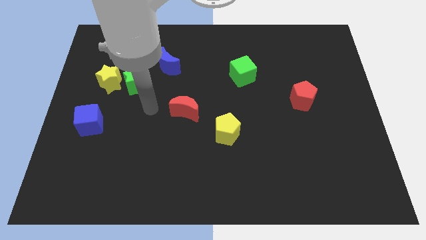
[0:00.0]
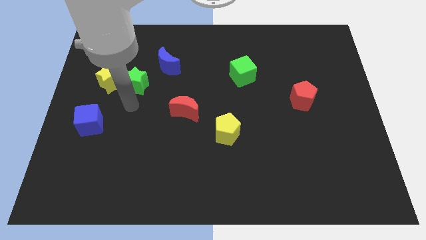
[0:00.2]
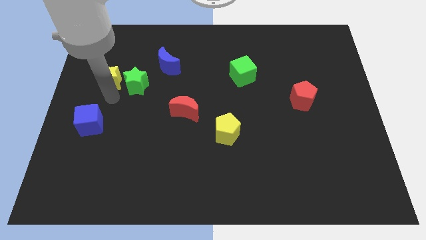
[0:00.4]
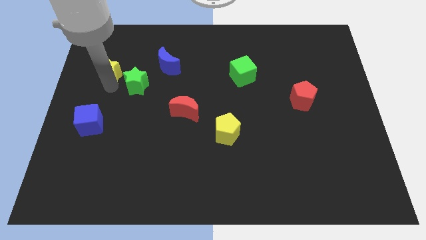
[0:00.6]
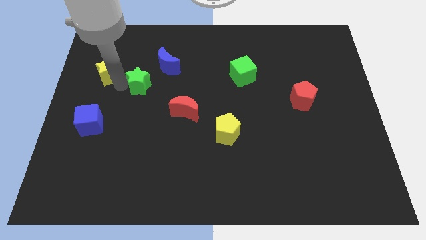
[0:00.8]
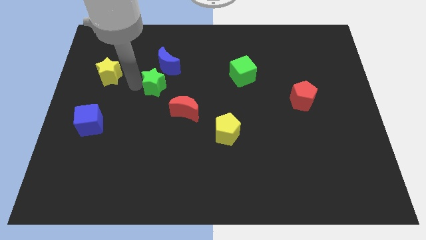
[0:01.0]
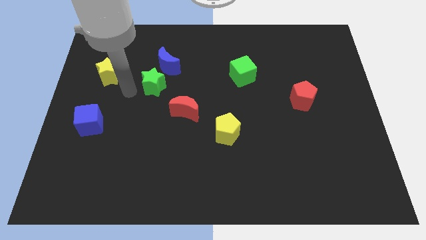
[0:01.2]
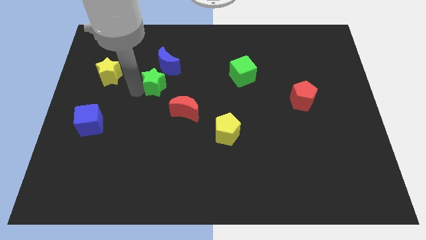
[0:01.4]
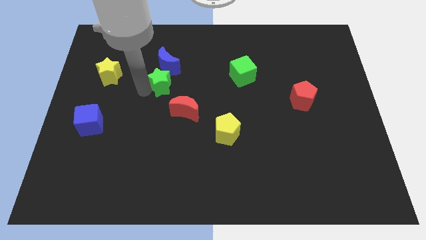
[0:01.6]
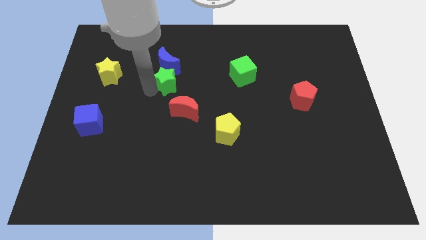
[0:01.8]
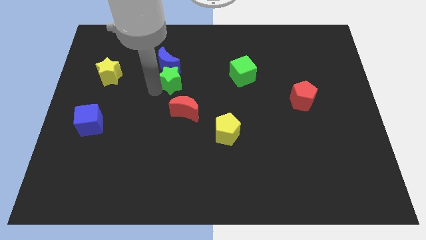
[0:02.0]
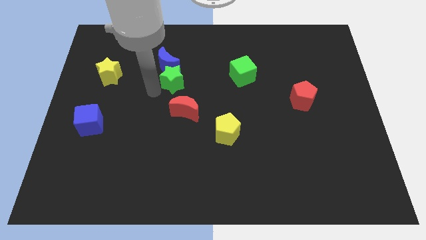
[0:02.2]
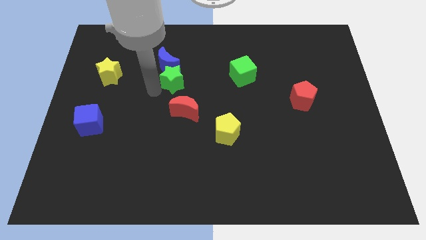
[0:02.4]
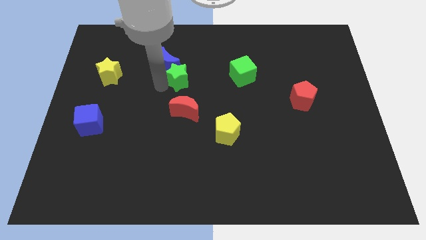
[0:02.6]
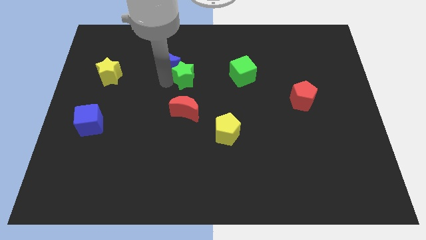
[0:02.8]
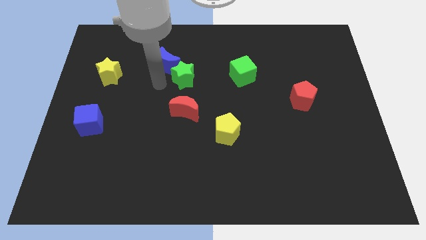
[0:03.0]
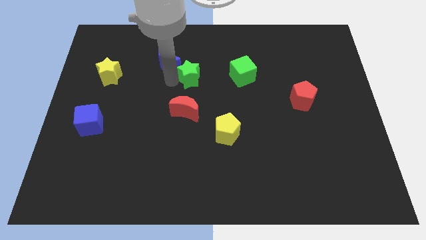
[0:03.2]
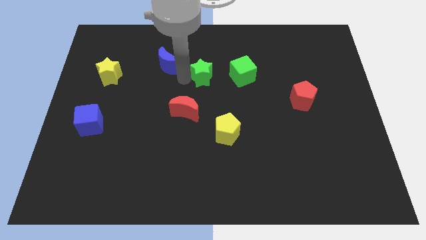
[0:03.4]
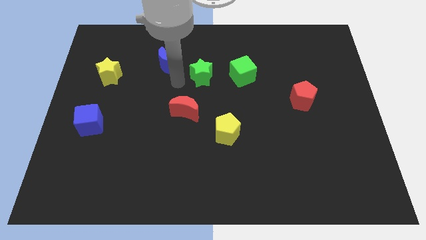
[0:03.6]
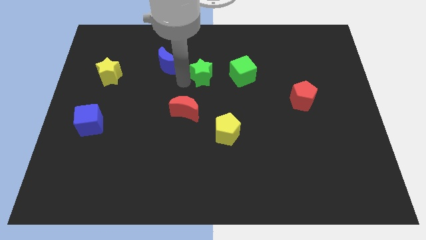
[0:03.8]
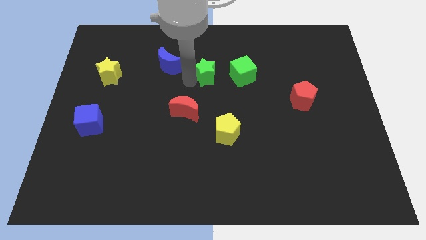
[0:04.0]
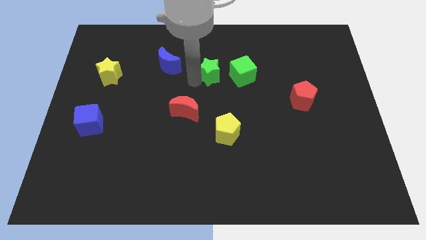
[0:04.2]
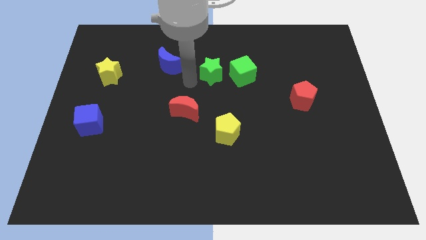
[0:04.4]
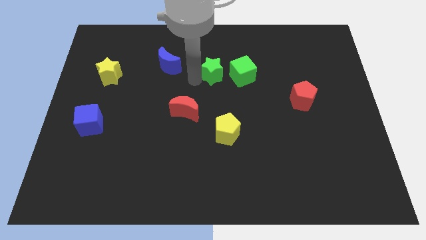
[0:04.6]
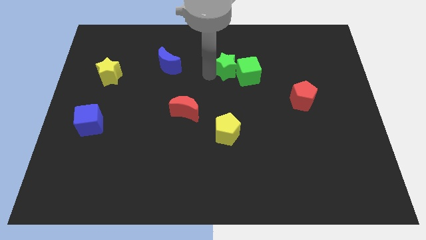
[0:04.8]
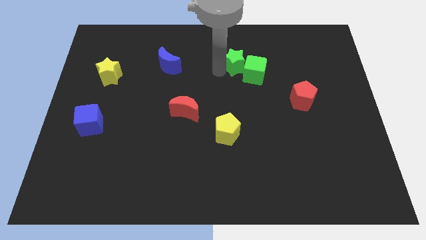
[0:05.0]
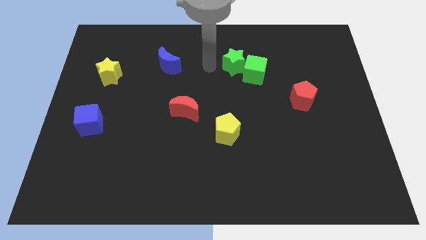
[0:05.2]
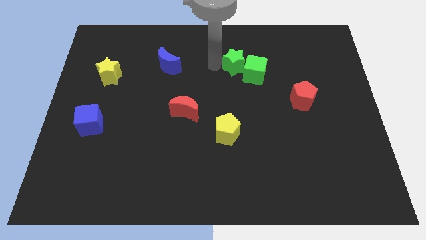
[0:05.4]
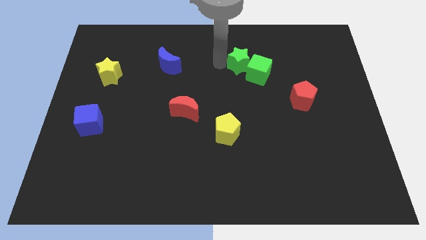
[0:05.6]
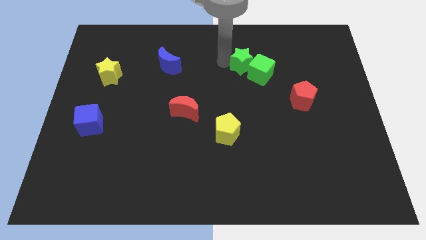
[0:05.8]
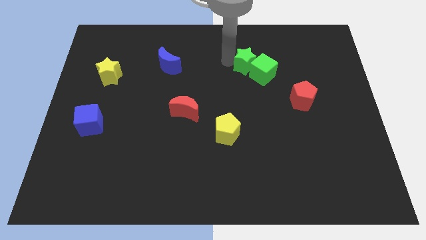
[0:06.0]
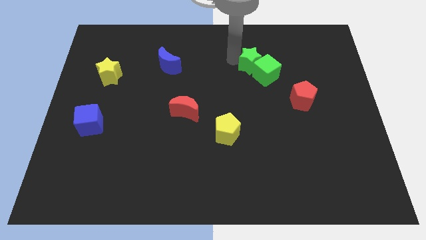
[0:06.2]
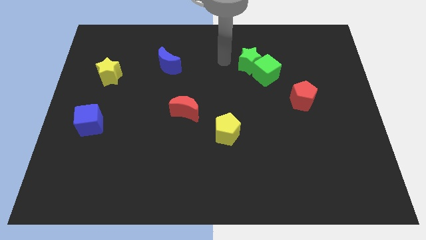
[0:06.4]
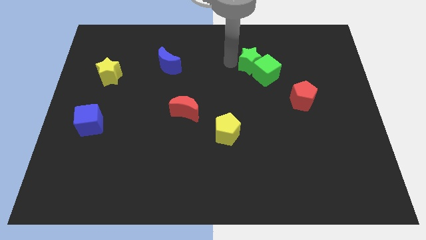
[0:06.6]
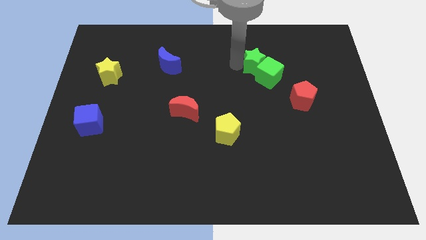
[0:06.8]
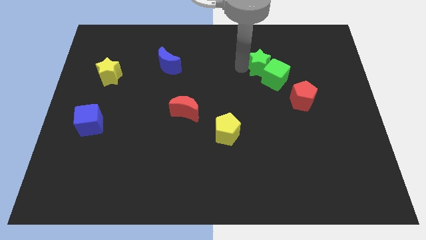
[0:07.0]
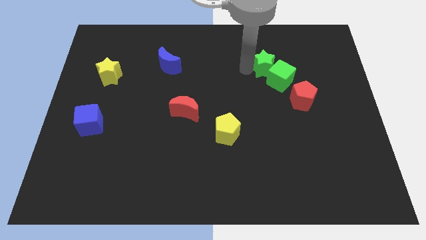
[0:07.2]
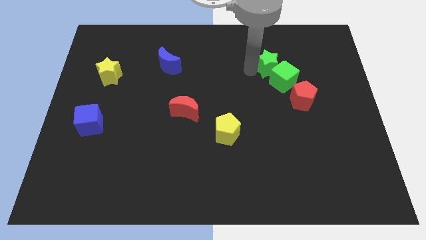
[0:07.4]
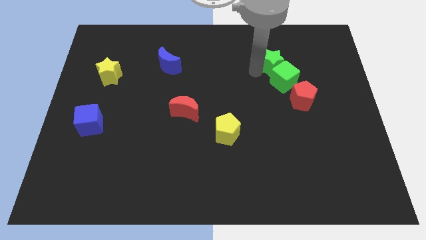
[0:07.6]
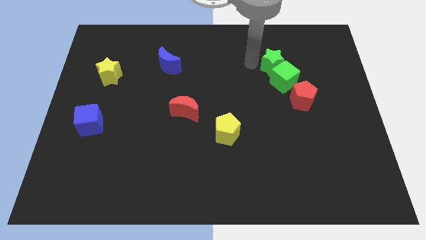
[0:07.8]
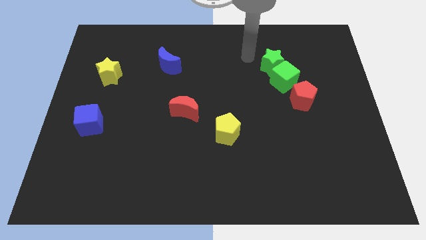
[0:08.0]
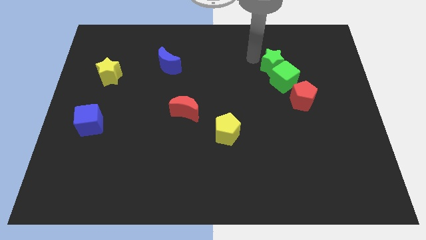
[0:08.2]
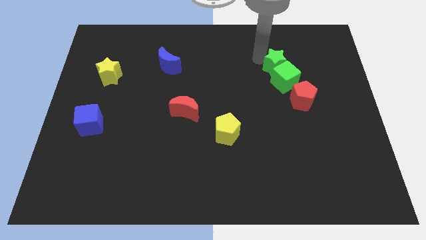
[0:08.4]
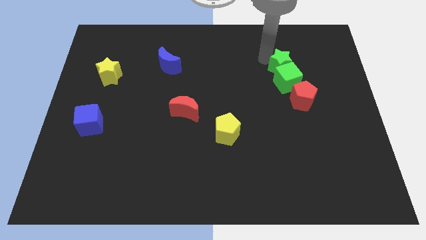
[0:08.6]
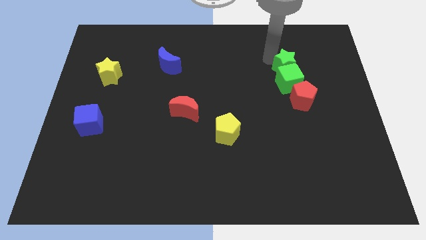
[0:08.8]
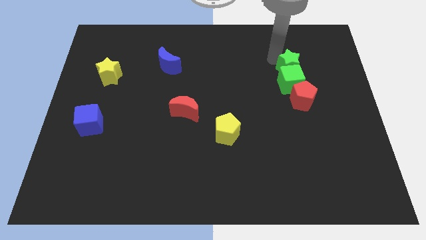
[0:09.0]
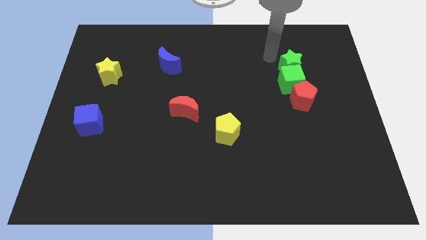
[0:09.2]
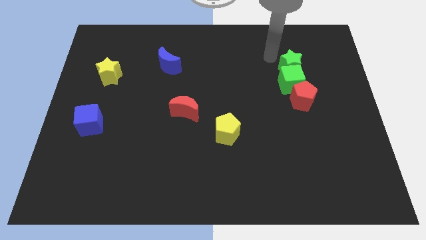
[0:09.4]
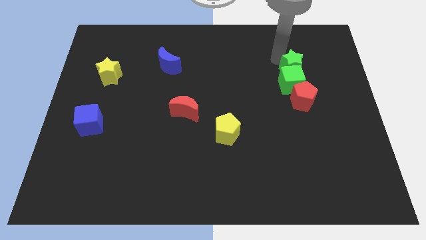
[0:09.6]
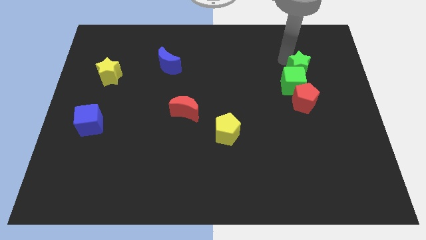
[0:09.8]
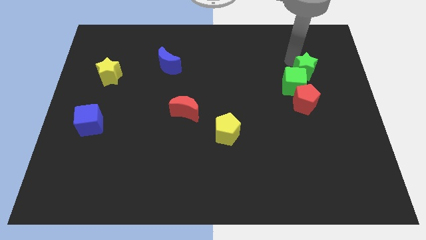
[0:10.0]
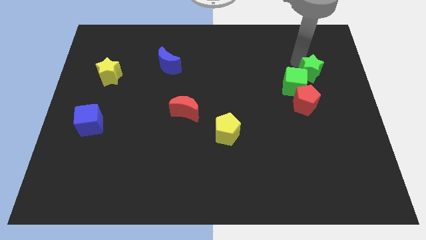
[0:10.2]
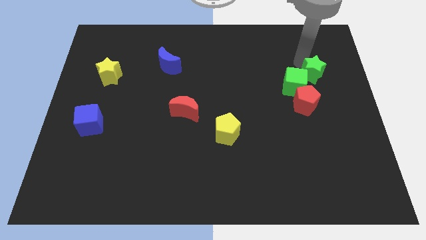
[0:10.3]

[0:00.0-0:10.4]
put the green star to the top right of the red pentagon

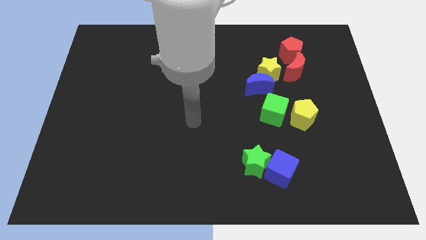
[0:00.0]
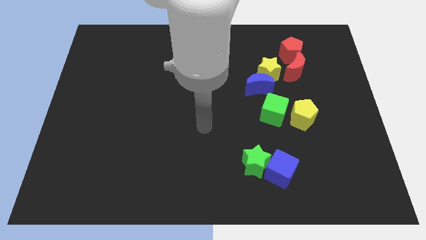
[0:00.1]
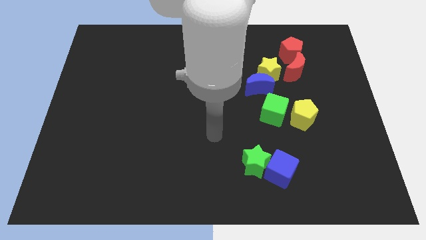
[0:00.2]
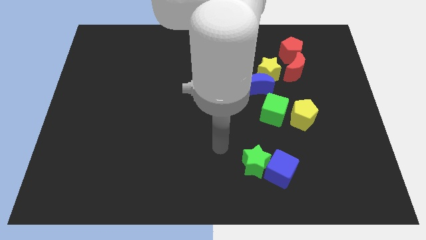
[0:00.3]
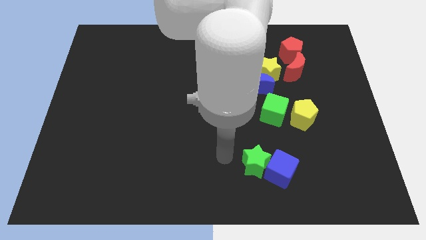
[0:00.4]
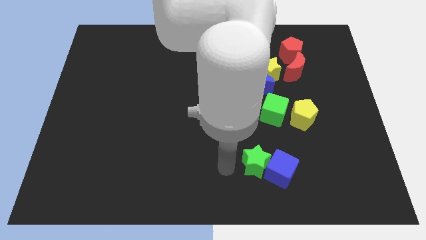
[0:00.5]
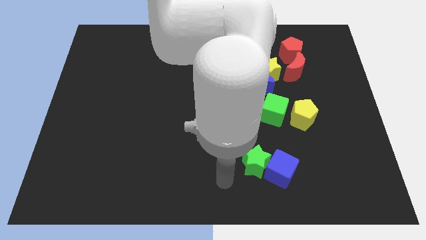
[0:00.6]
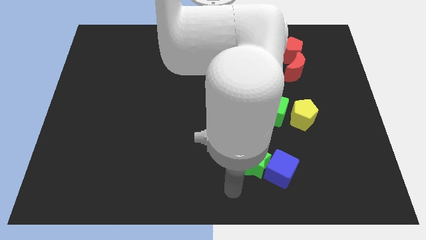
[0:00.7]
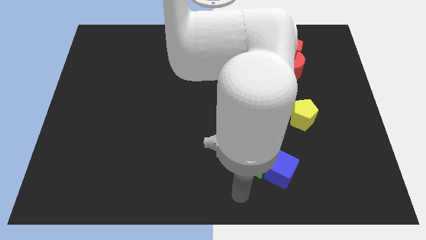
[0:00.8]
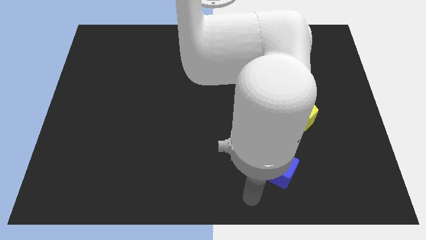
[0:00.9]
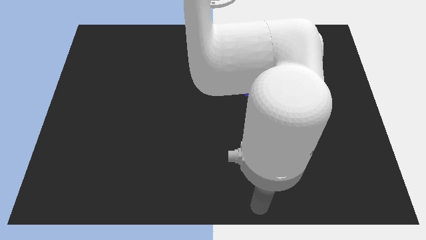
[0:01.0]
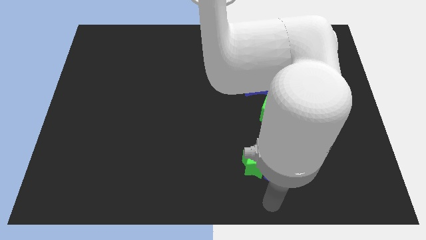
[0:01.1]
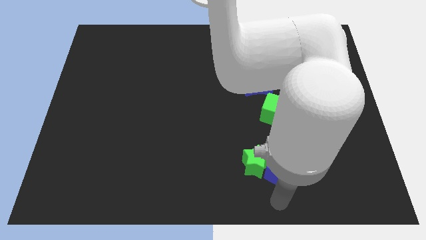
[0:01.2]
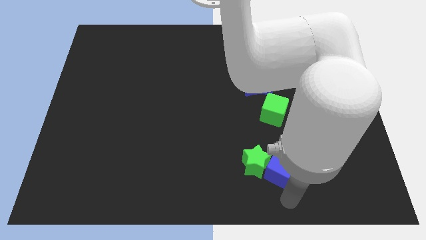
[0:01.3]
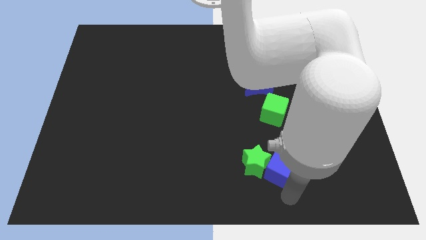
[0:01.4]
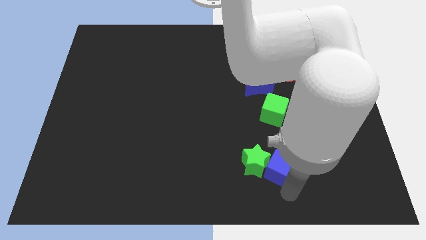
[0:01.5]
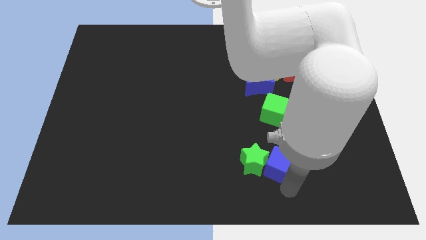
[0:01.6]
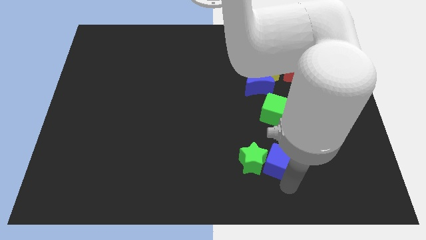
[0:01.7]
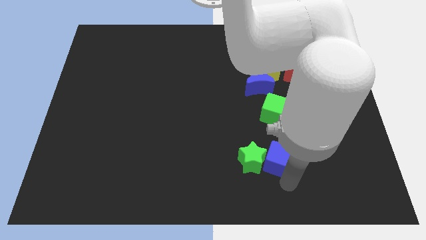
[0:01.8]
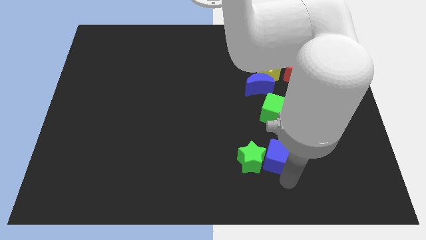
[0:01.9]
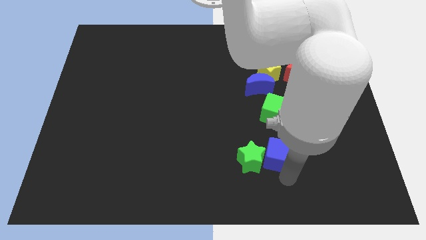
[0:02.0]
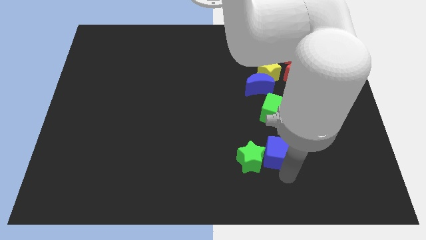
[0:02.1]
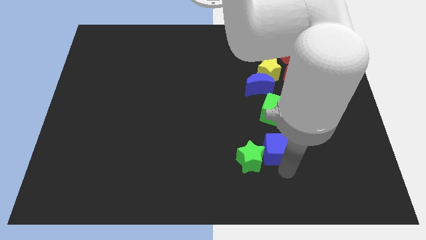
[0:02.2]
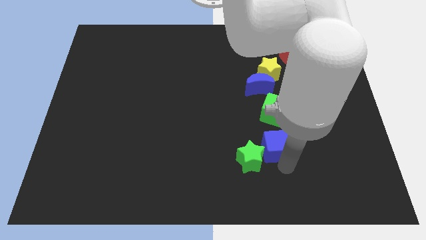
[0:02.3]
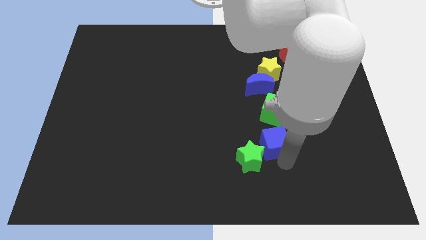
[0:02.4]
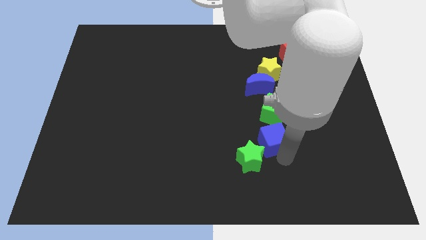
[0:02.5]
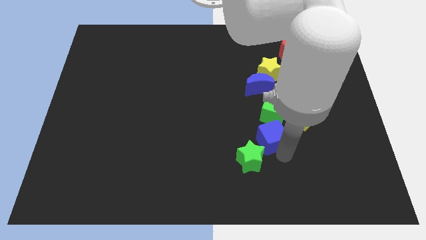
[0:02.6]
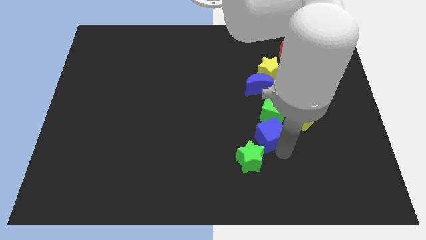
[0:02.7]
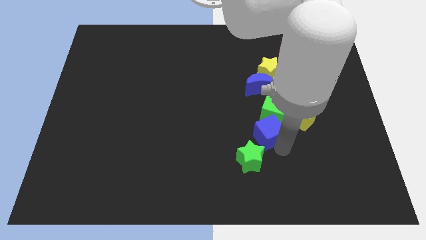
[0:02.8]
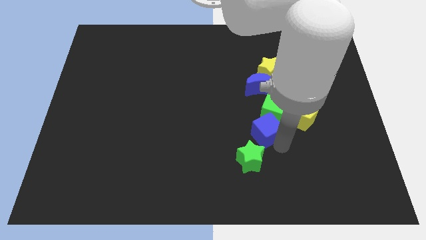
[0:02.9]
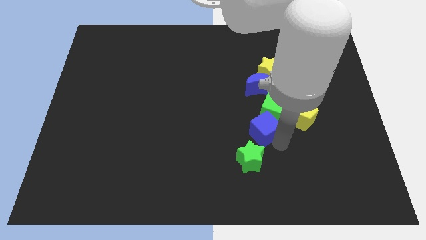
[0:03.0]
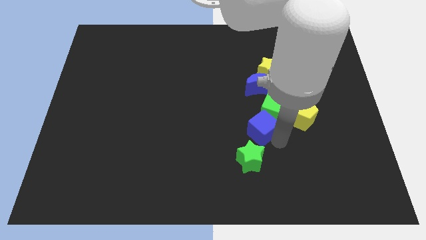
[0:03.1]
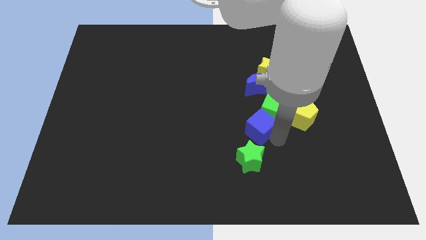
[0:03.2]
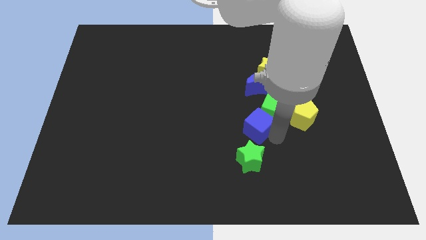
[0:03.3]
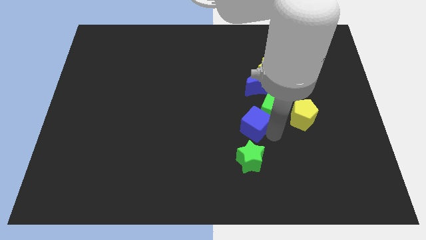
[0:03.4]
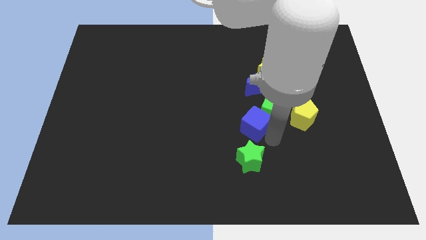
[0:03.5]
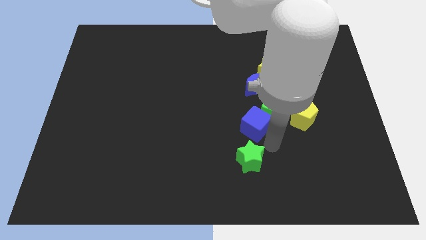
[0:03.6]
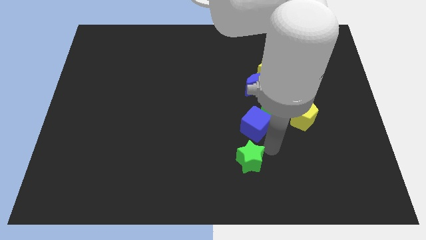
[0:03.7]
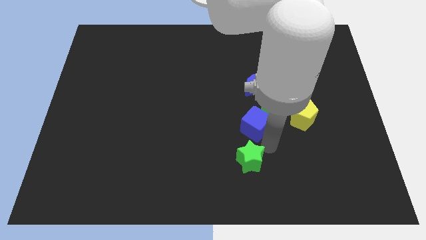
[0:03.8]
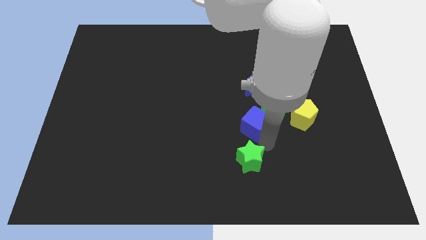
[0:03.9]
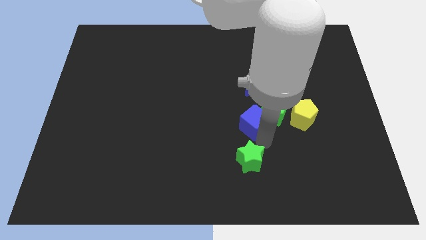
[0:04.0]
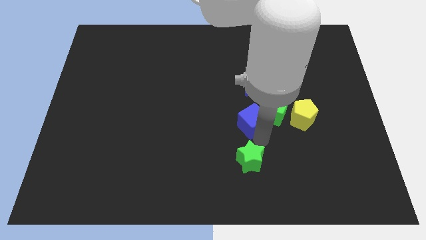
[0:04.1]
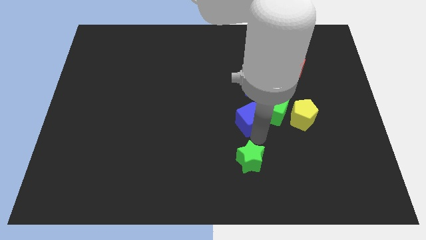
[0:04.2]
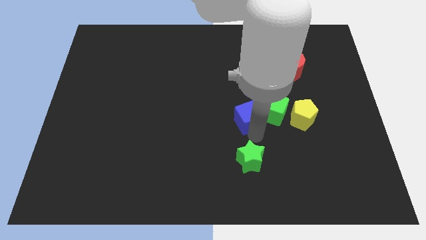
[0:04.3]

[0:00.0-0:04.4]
slide the blue cube to the bottom left of the blue moon
